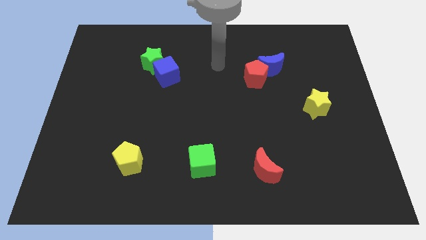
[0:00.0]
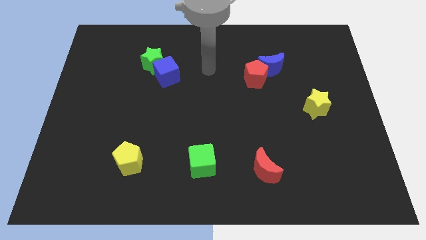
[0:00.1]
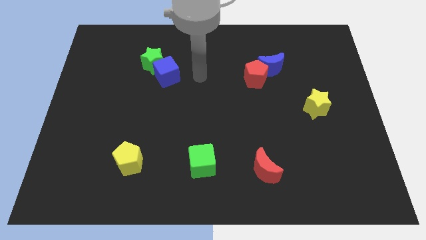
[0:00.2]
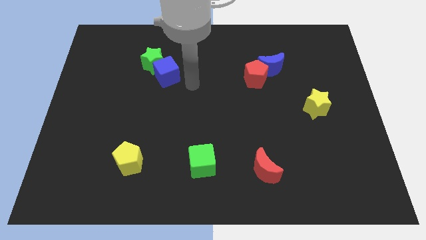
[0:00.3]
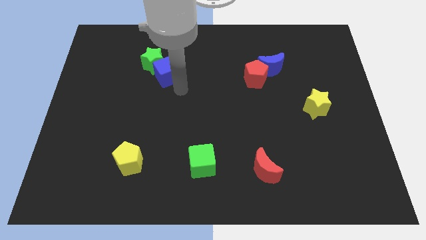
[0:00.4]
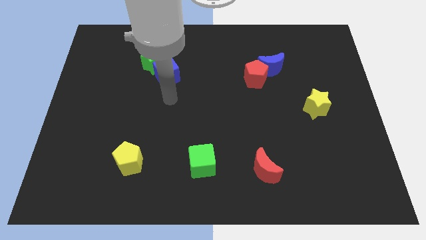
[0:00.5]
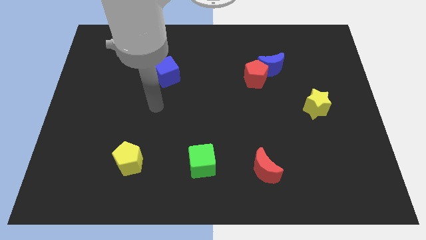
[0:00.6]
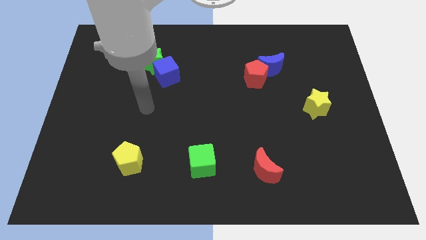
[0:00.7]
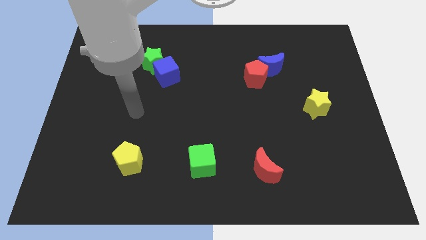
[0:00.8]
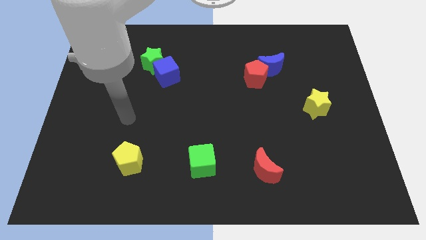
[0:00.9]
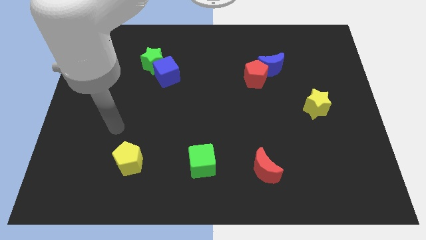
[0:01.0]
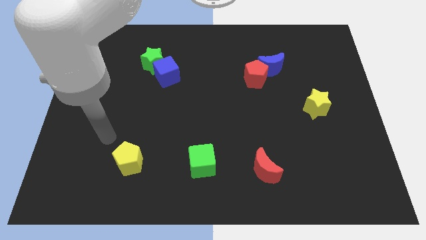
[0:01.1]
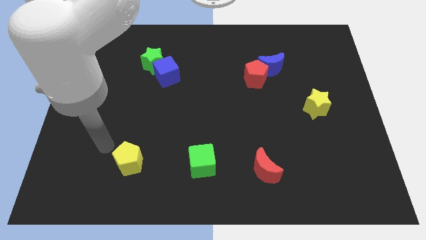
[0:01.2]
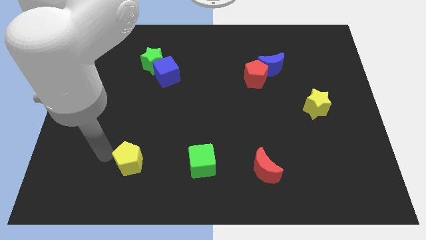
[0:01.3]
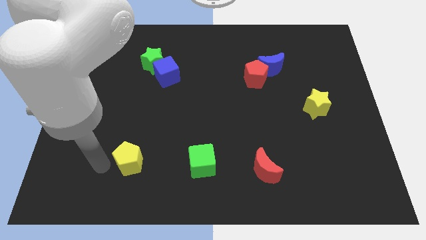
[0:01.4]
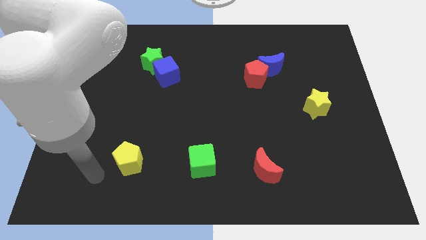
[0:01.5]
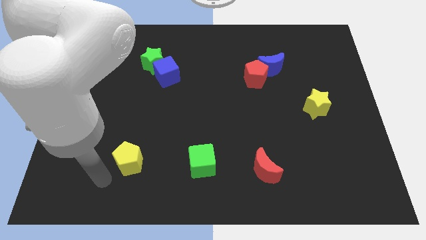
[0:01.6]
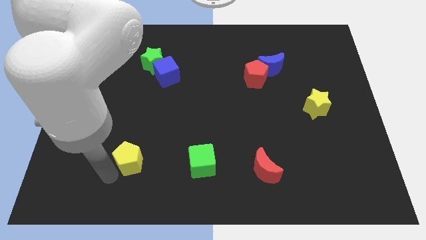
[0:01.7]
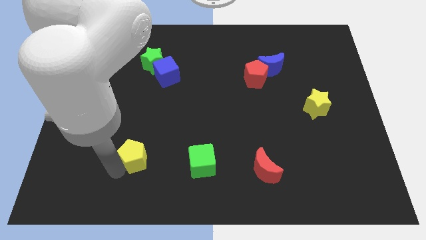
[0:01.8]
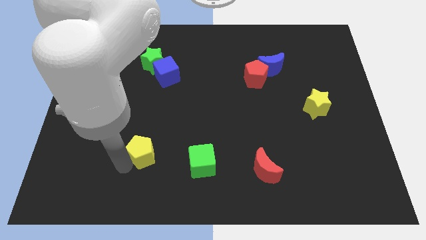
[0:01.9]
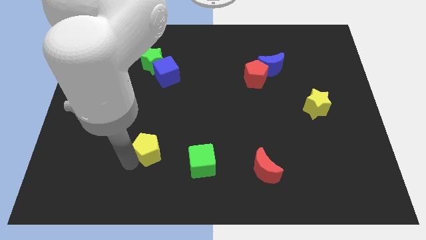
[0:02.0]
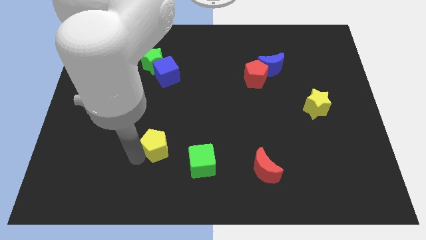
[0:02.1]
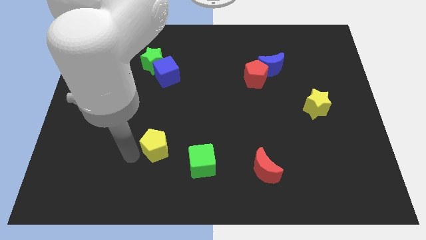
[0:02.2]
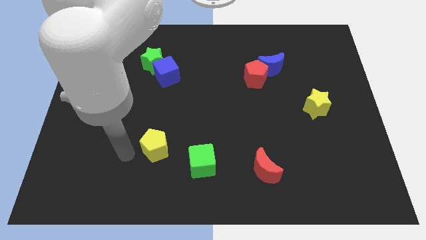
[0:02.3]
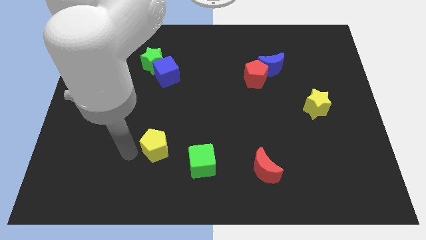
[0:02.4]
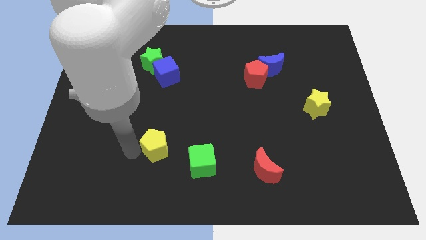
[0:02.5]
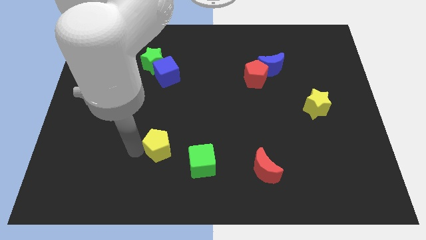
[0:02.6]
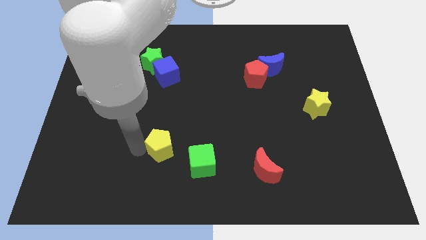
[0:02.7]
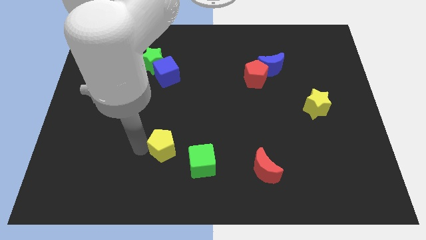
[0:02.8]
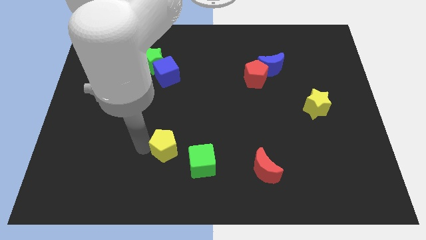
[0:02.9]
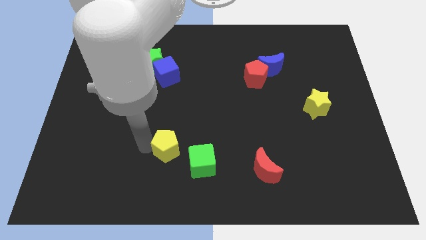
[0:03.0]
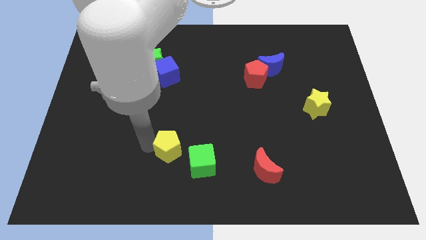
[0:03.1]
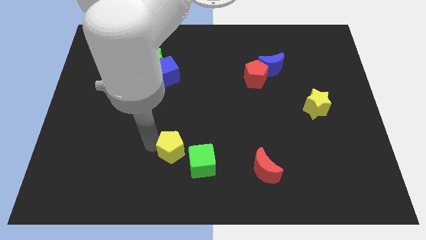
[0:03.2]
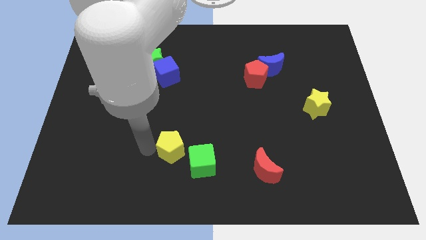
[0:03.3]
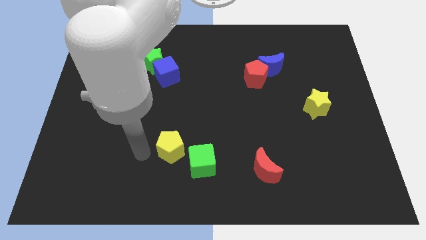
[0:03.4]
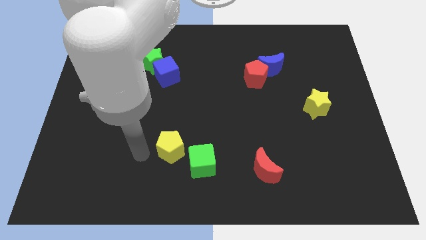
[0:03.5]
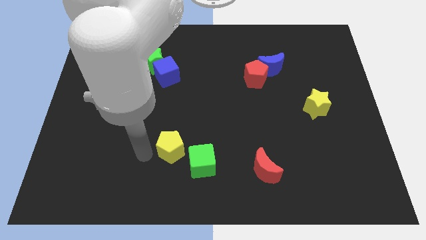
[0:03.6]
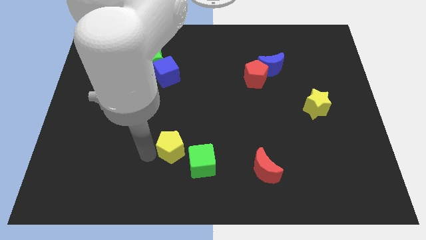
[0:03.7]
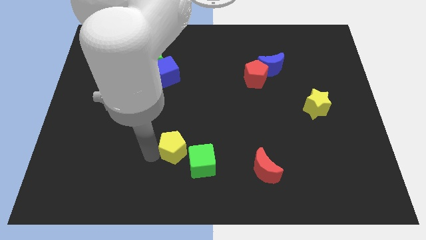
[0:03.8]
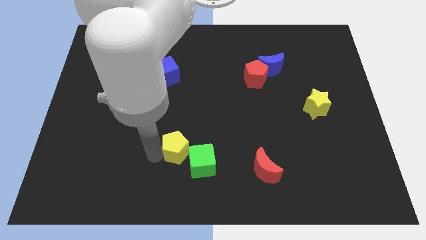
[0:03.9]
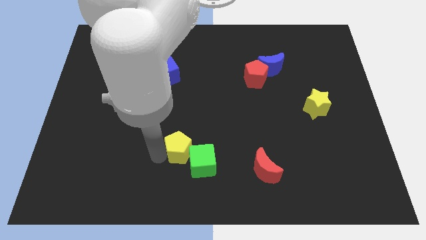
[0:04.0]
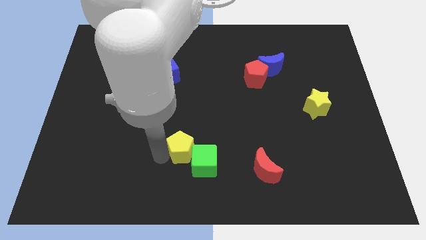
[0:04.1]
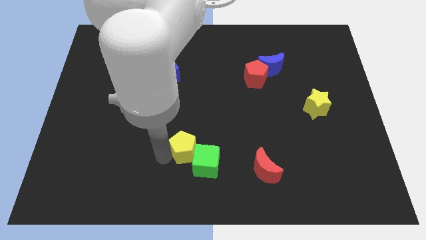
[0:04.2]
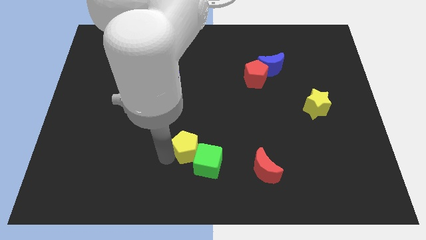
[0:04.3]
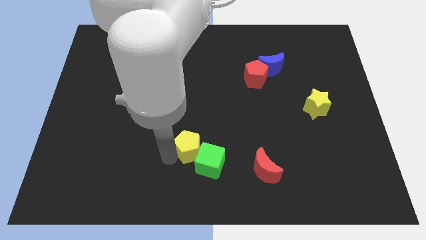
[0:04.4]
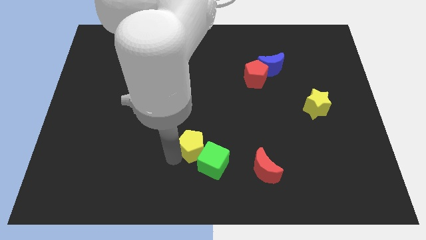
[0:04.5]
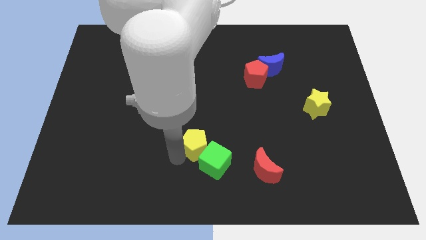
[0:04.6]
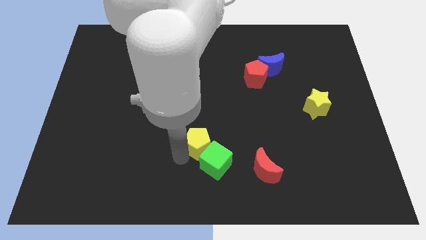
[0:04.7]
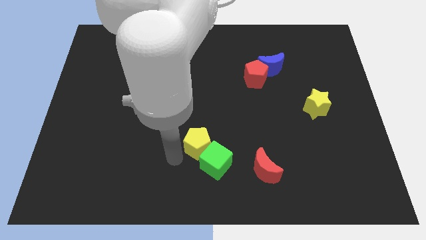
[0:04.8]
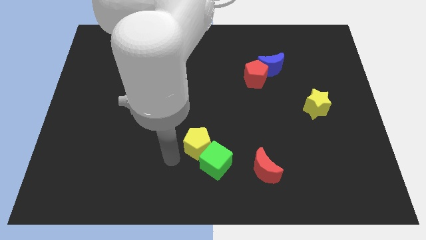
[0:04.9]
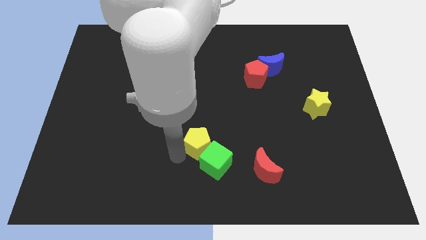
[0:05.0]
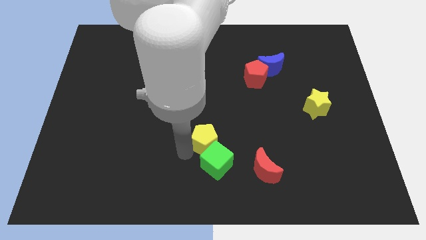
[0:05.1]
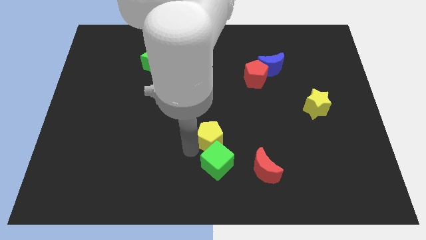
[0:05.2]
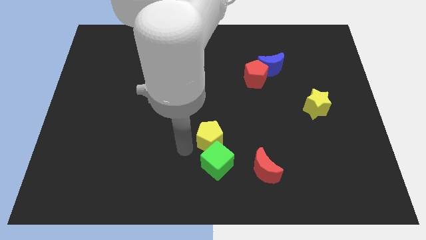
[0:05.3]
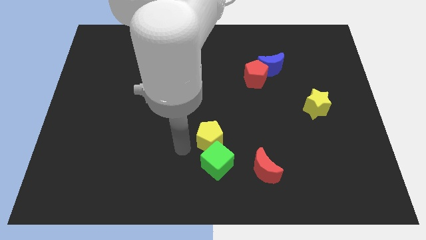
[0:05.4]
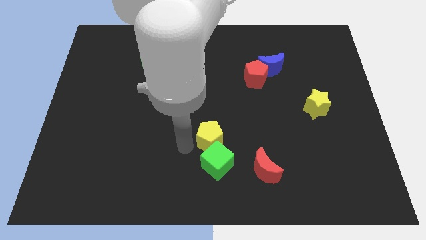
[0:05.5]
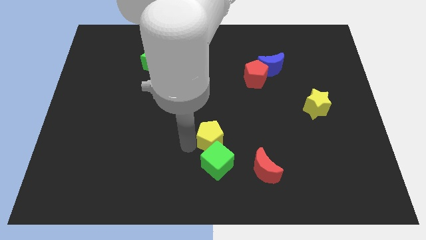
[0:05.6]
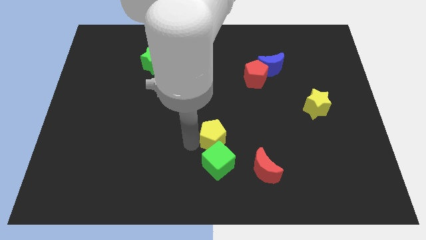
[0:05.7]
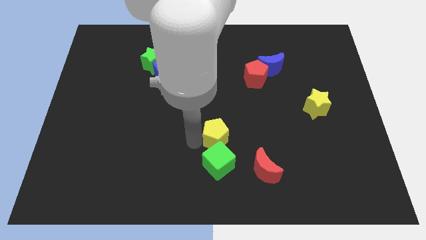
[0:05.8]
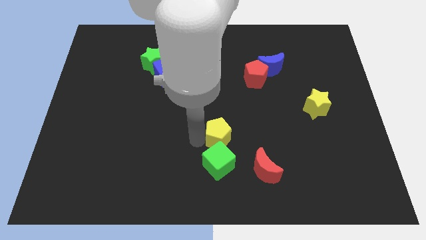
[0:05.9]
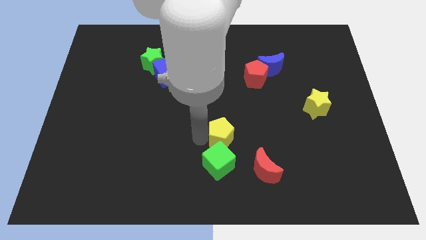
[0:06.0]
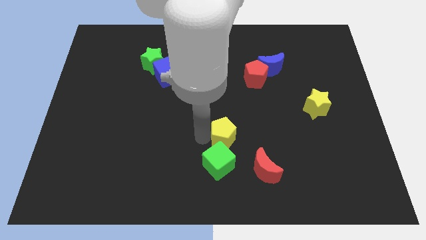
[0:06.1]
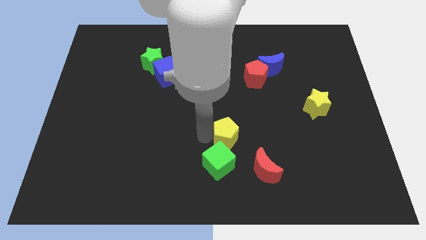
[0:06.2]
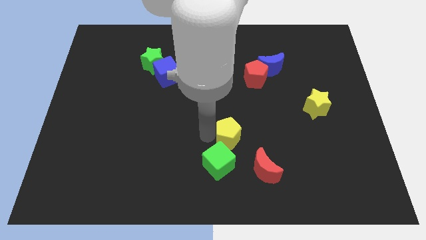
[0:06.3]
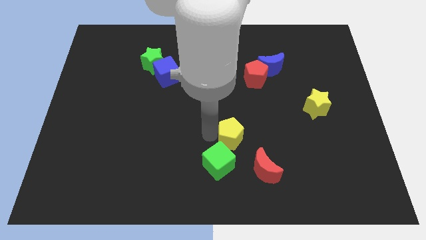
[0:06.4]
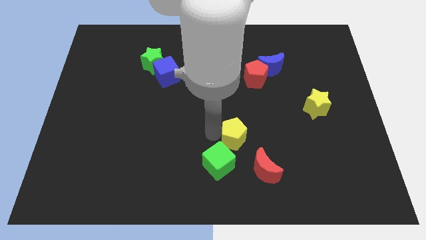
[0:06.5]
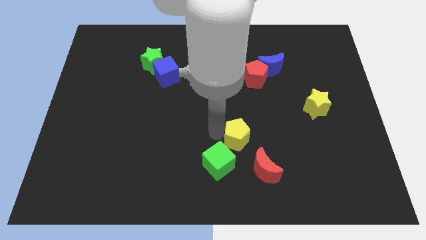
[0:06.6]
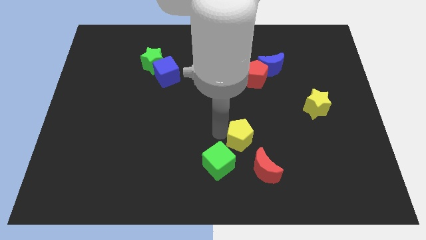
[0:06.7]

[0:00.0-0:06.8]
slide the yellow pentagon above the red moon

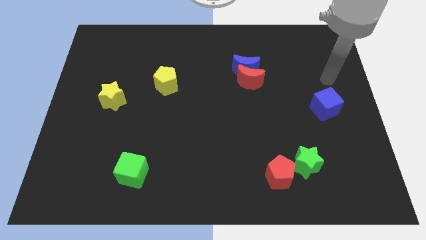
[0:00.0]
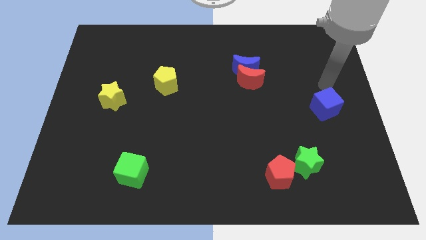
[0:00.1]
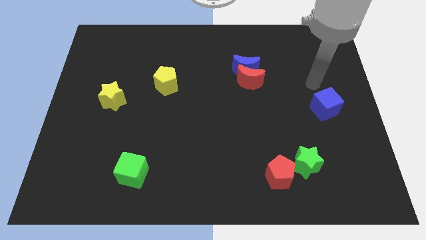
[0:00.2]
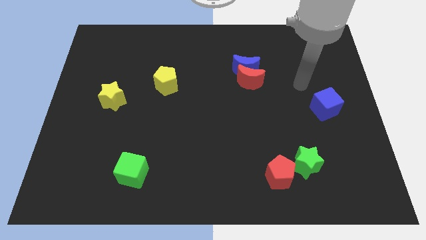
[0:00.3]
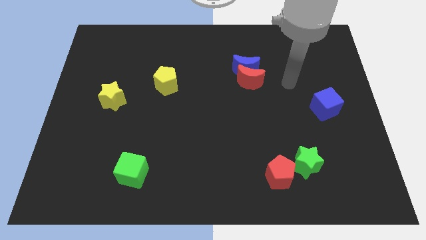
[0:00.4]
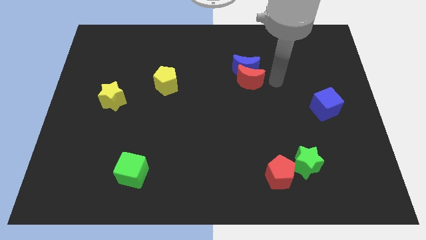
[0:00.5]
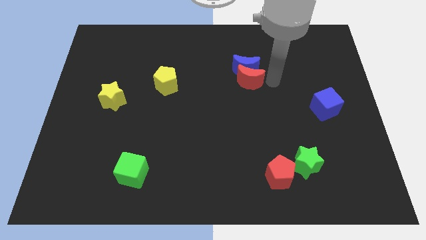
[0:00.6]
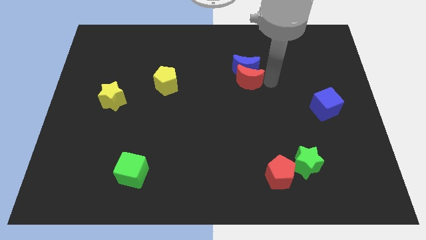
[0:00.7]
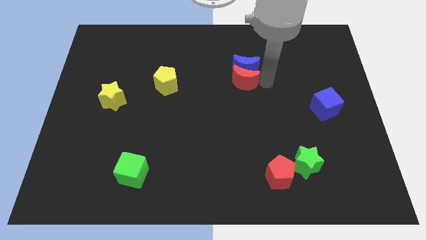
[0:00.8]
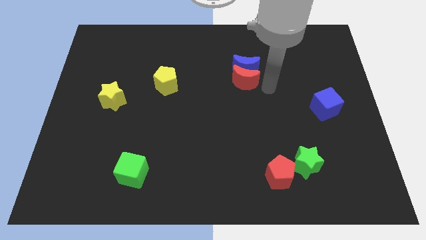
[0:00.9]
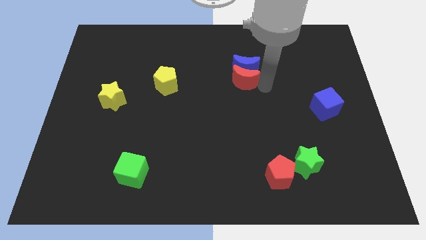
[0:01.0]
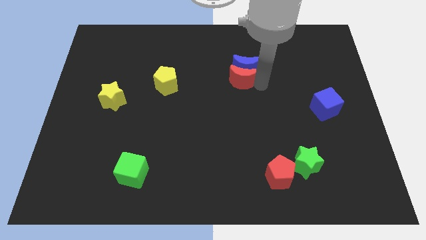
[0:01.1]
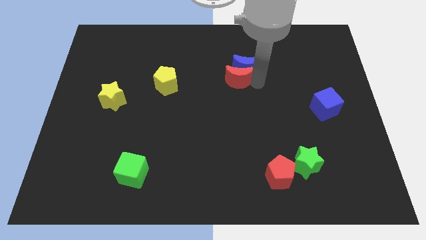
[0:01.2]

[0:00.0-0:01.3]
move the red moon just left of the blue moon
